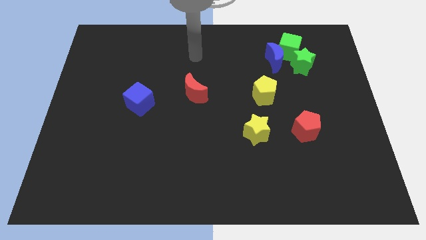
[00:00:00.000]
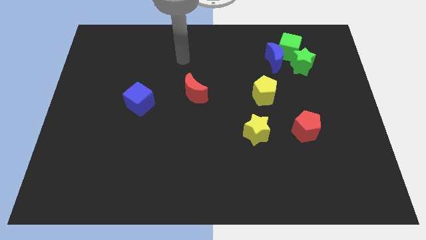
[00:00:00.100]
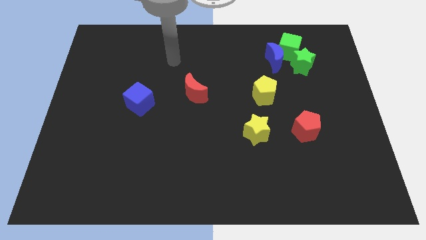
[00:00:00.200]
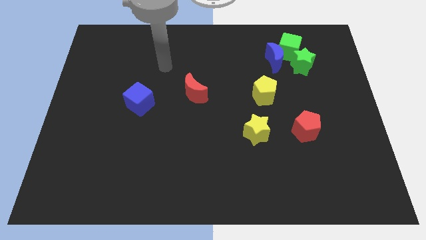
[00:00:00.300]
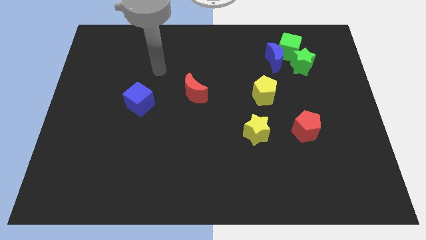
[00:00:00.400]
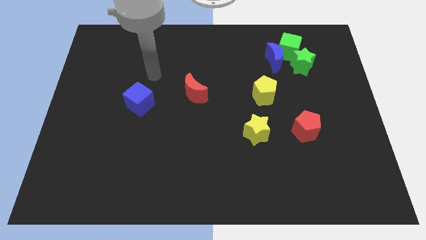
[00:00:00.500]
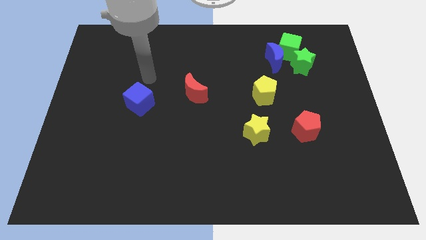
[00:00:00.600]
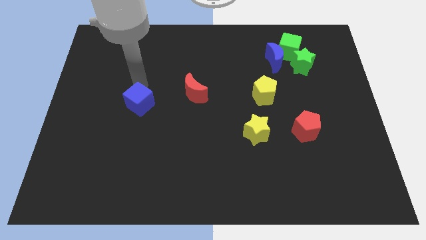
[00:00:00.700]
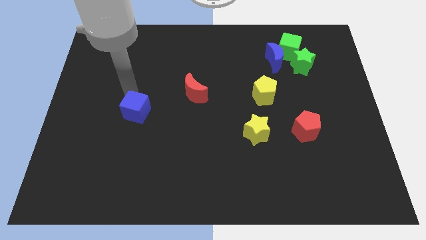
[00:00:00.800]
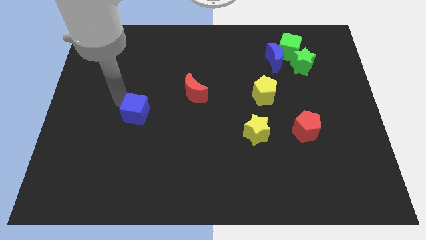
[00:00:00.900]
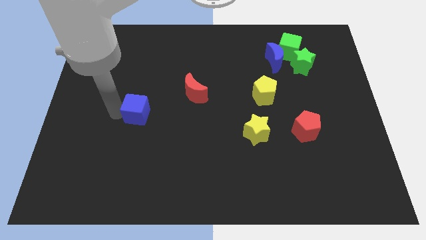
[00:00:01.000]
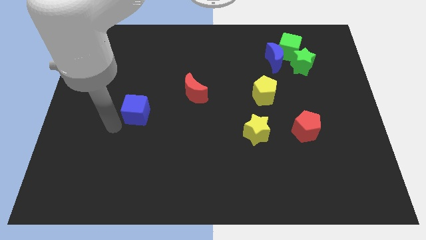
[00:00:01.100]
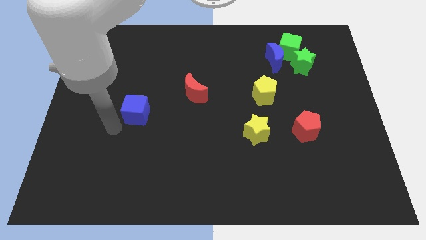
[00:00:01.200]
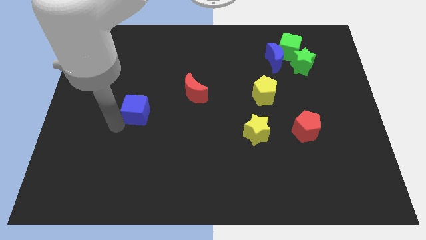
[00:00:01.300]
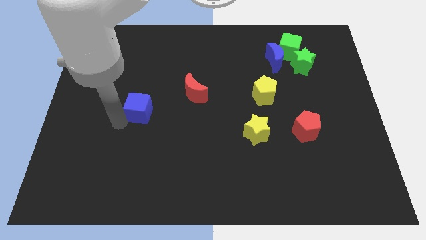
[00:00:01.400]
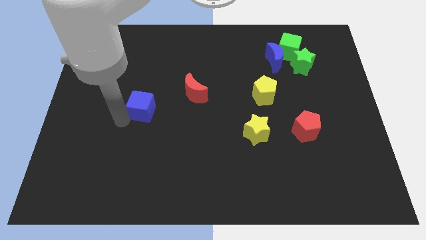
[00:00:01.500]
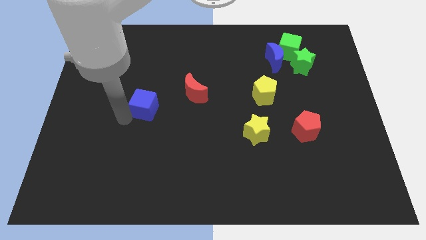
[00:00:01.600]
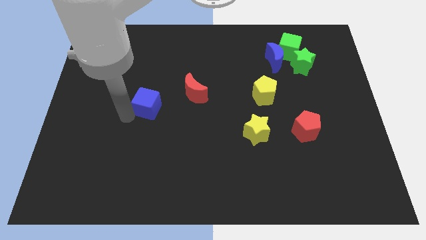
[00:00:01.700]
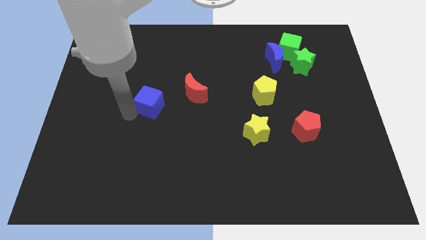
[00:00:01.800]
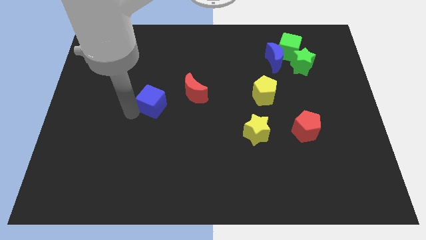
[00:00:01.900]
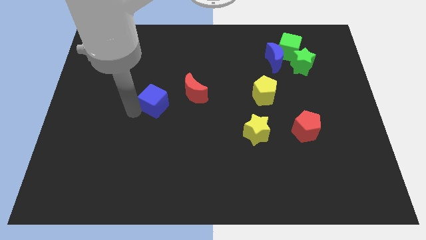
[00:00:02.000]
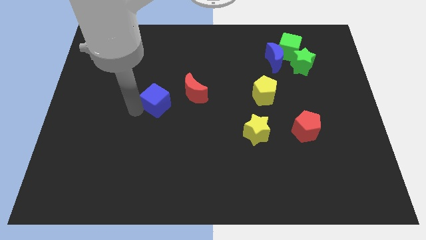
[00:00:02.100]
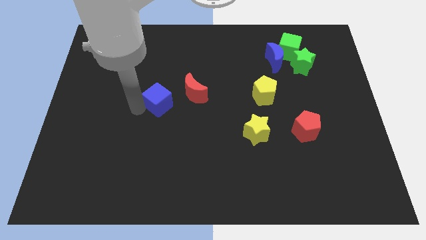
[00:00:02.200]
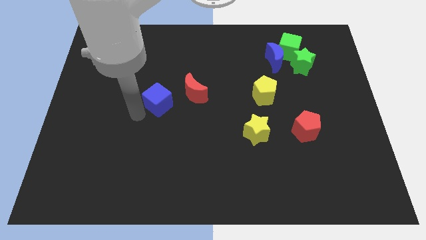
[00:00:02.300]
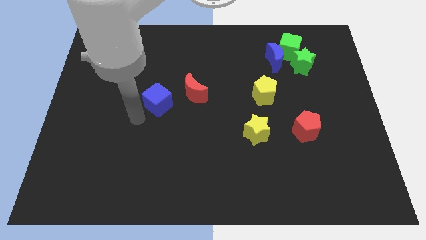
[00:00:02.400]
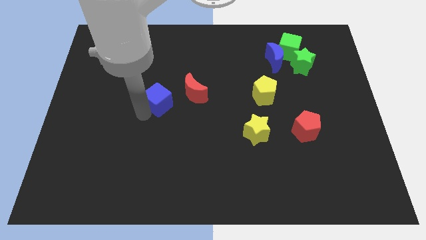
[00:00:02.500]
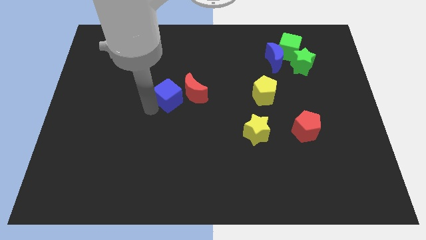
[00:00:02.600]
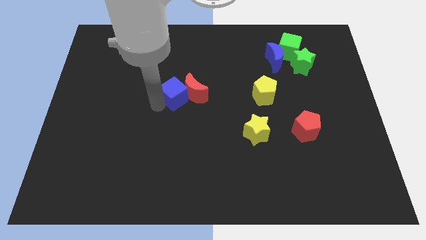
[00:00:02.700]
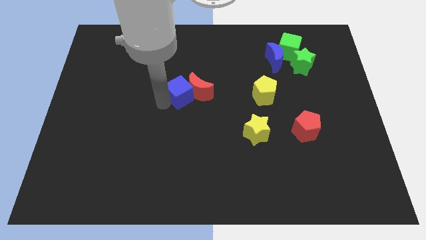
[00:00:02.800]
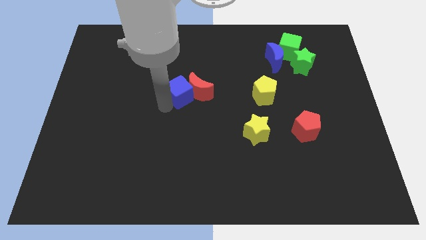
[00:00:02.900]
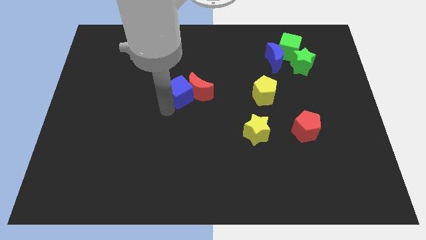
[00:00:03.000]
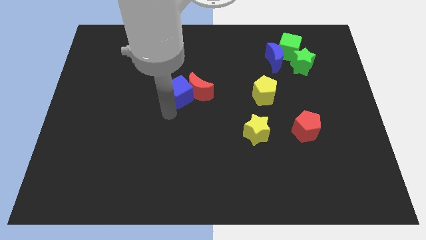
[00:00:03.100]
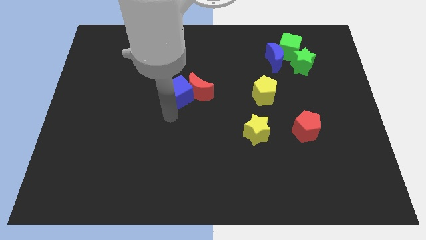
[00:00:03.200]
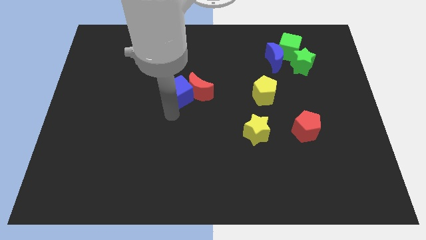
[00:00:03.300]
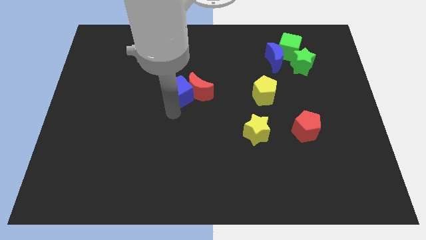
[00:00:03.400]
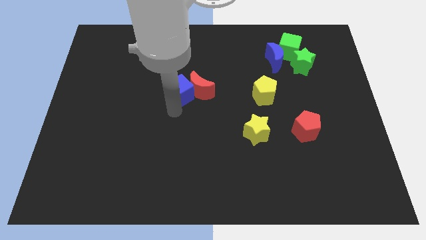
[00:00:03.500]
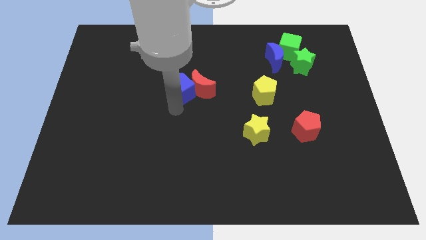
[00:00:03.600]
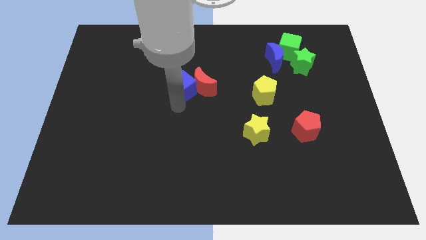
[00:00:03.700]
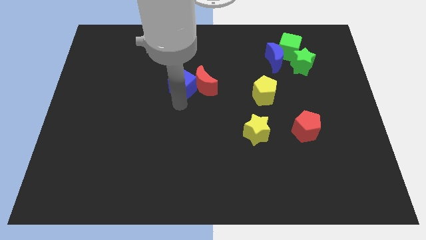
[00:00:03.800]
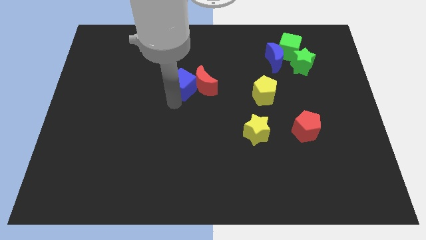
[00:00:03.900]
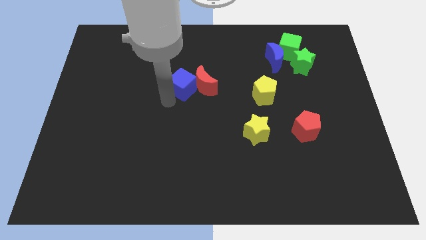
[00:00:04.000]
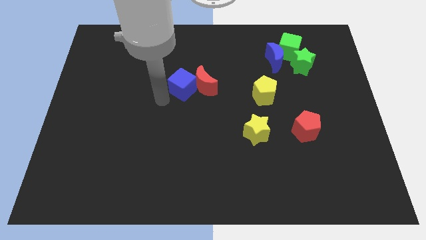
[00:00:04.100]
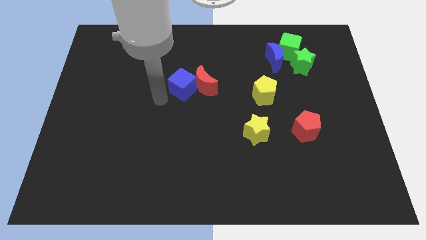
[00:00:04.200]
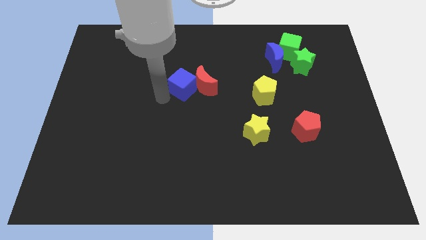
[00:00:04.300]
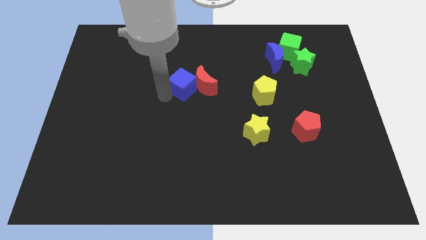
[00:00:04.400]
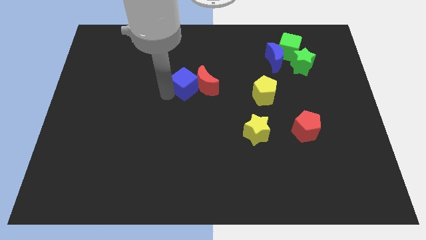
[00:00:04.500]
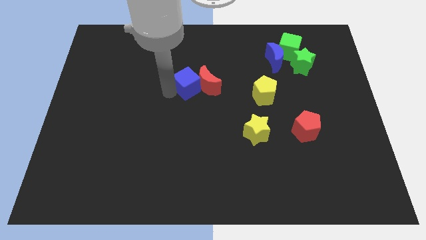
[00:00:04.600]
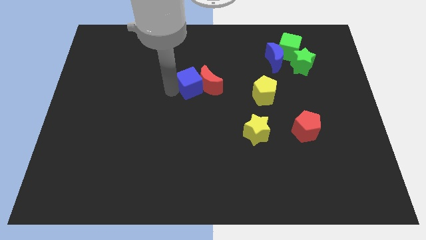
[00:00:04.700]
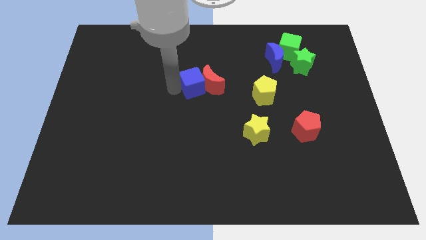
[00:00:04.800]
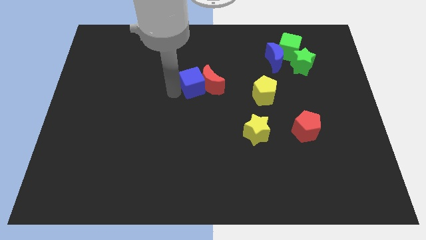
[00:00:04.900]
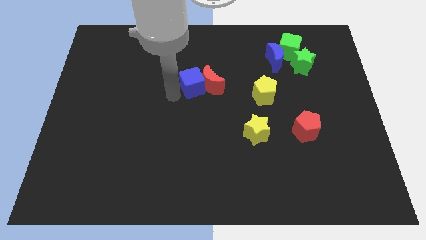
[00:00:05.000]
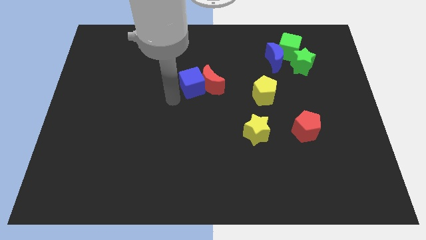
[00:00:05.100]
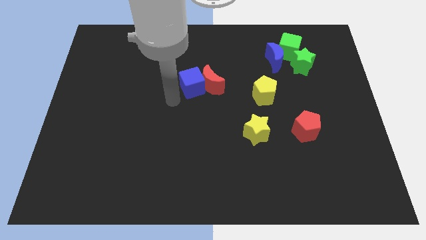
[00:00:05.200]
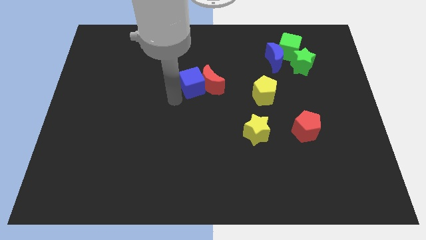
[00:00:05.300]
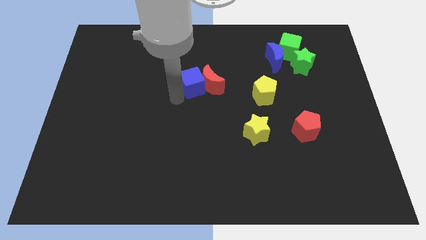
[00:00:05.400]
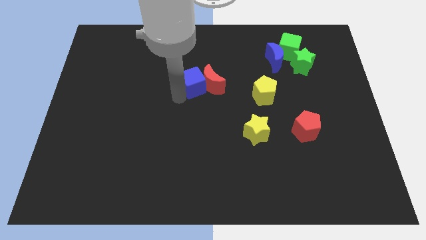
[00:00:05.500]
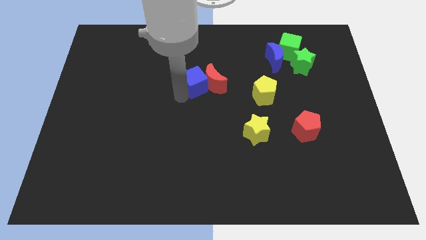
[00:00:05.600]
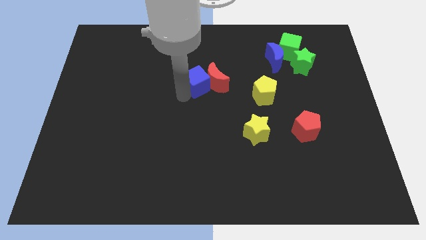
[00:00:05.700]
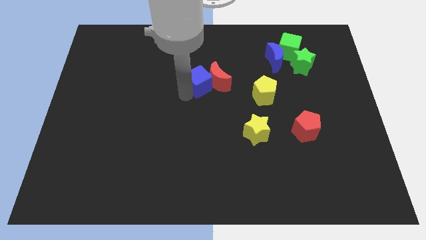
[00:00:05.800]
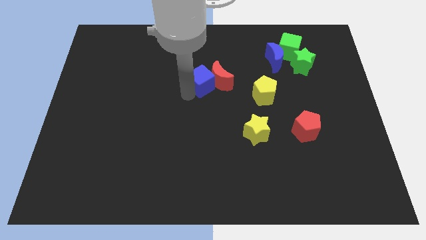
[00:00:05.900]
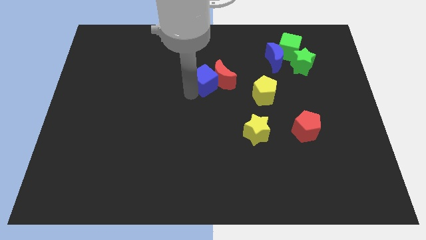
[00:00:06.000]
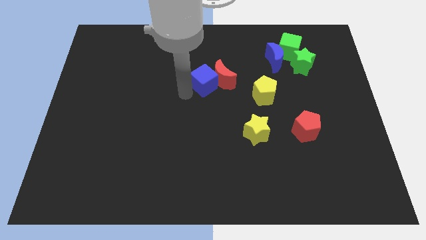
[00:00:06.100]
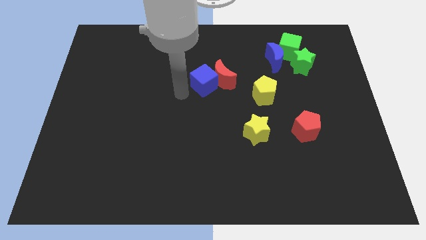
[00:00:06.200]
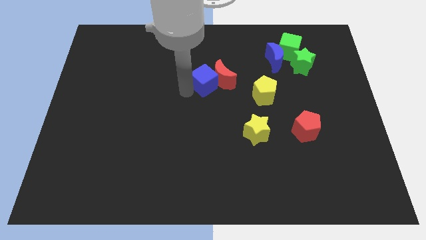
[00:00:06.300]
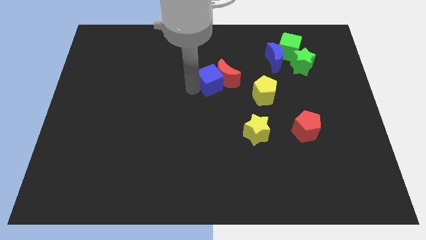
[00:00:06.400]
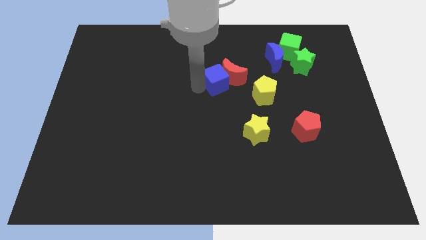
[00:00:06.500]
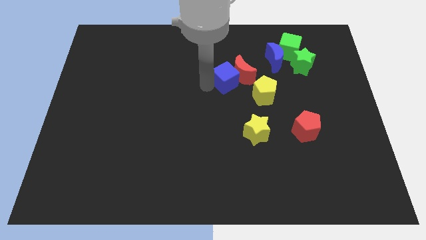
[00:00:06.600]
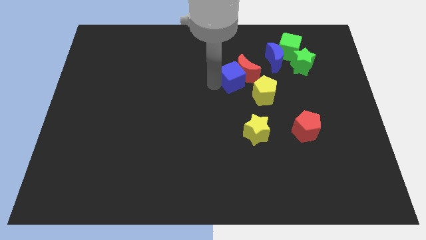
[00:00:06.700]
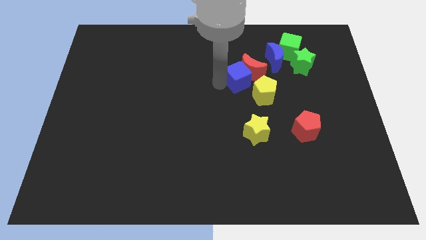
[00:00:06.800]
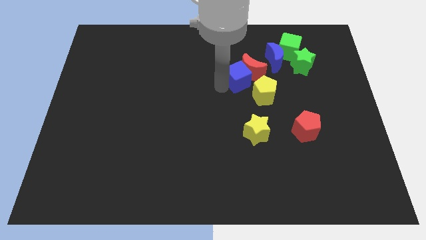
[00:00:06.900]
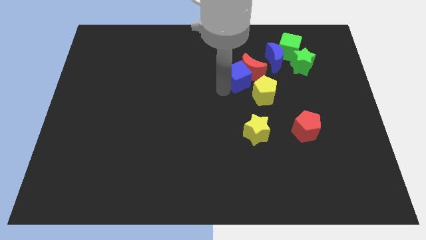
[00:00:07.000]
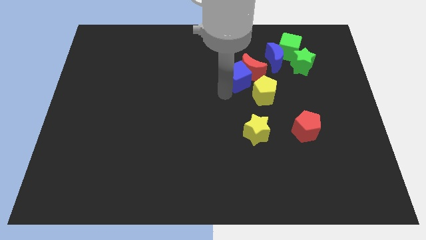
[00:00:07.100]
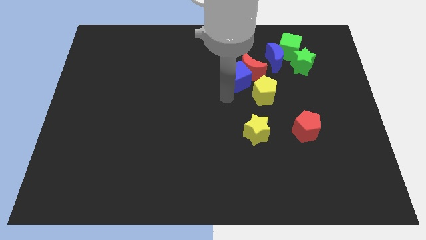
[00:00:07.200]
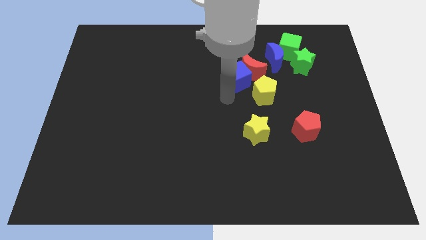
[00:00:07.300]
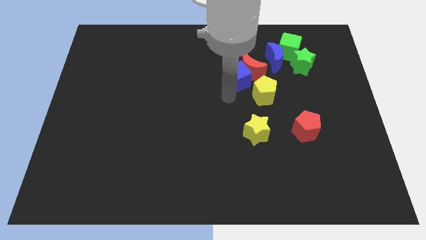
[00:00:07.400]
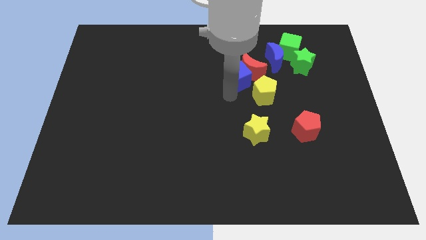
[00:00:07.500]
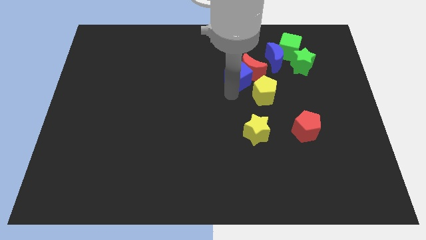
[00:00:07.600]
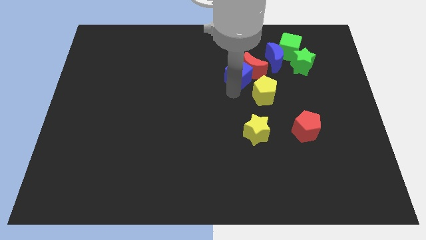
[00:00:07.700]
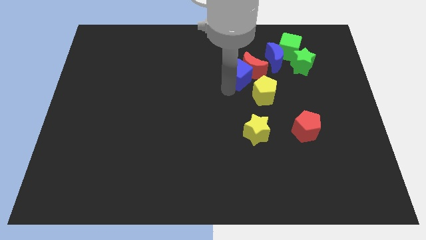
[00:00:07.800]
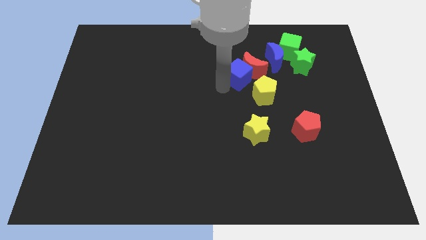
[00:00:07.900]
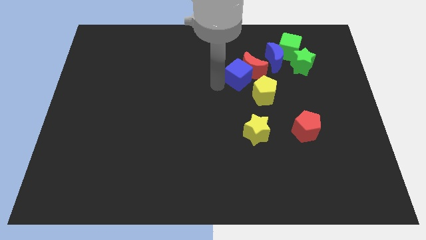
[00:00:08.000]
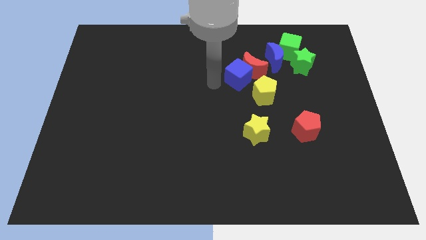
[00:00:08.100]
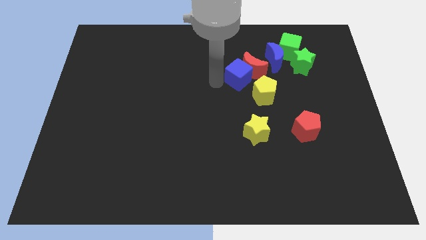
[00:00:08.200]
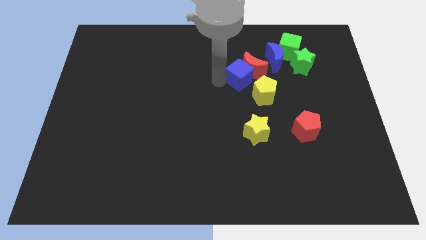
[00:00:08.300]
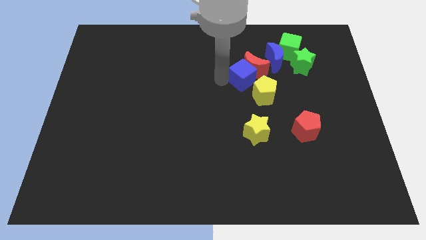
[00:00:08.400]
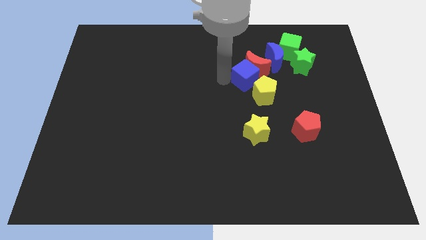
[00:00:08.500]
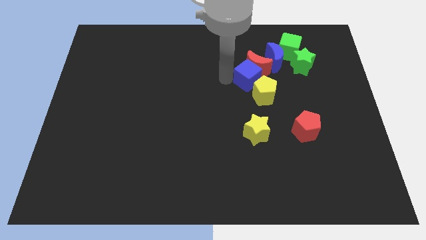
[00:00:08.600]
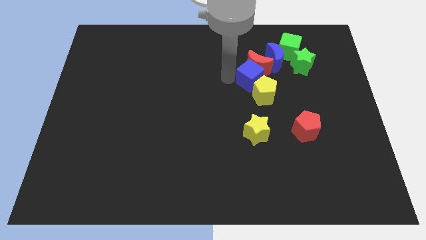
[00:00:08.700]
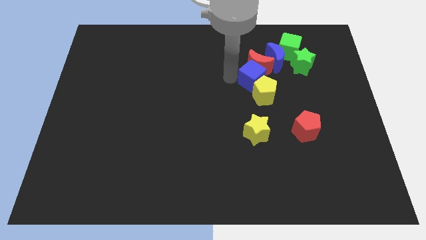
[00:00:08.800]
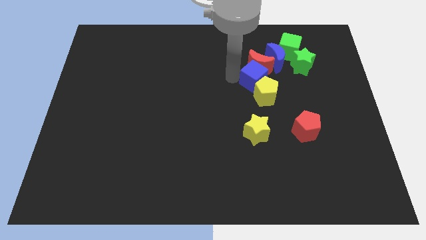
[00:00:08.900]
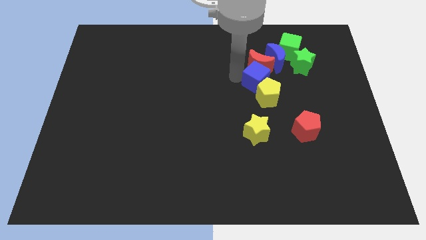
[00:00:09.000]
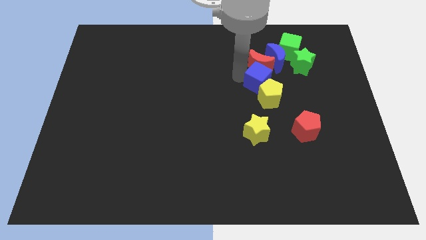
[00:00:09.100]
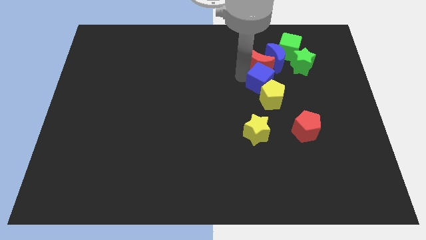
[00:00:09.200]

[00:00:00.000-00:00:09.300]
slide the blue cube below the blue moon
